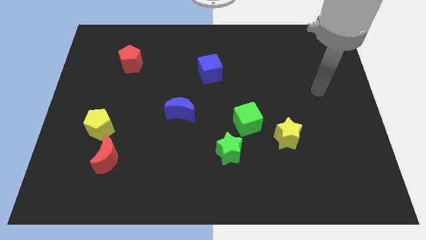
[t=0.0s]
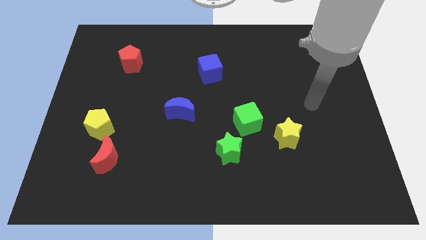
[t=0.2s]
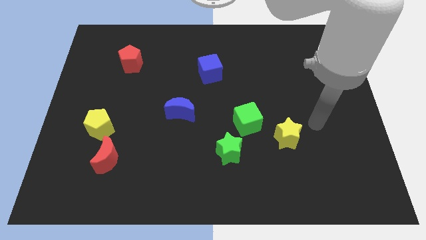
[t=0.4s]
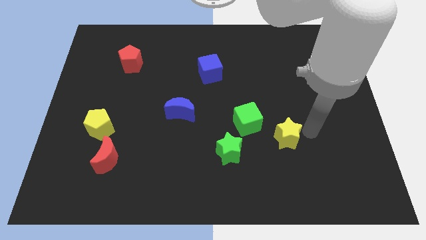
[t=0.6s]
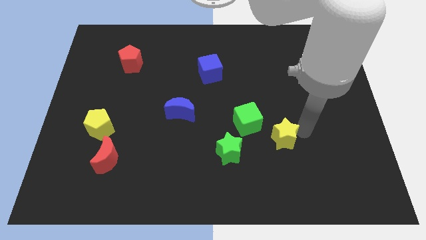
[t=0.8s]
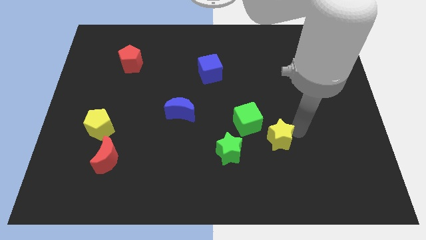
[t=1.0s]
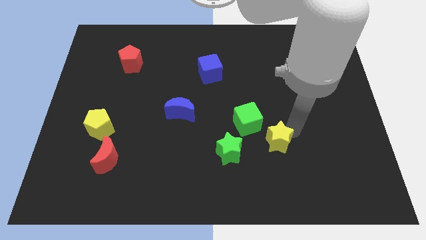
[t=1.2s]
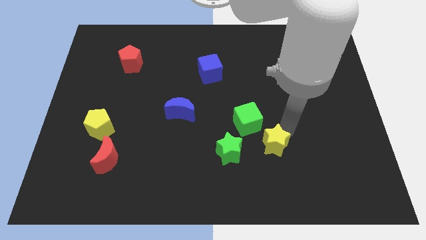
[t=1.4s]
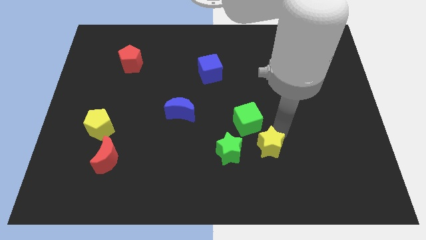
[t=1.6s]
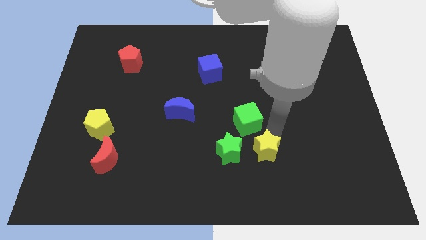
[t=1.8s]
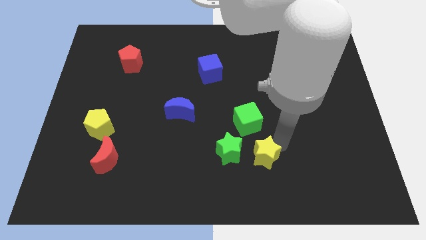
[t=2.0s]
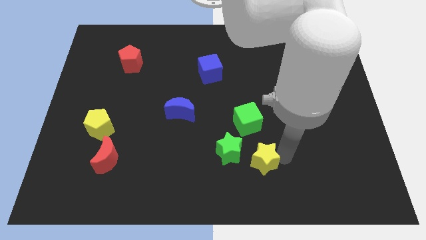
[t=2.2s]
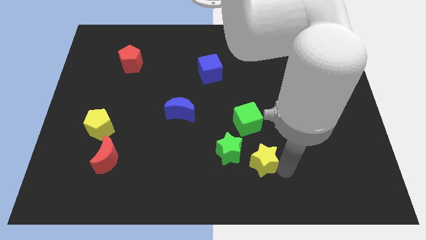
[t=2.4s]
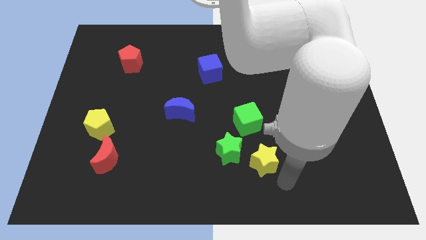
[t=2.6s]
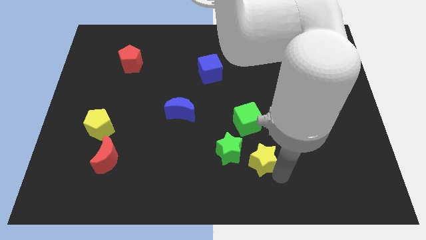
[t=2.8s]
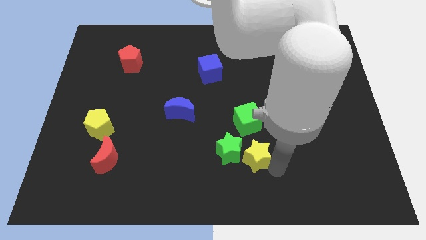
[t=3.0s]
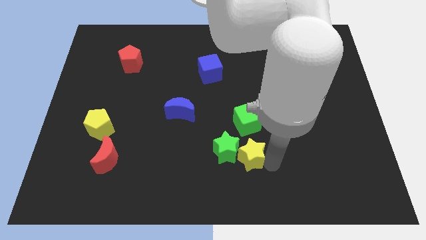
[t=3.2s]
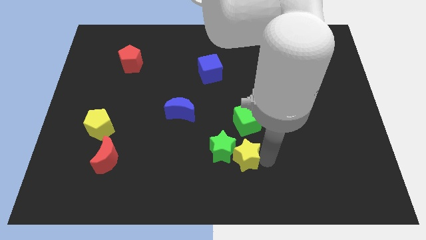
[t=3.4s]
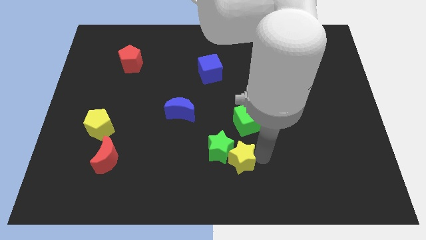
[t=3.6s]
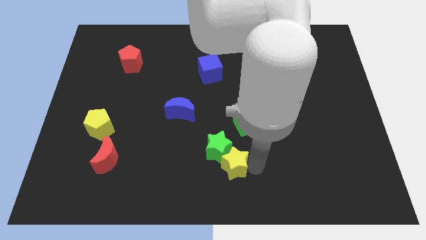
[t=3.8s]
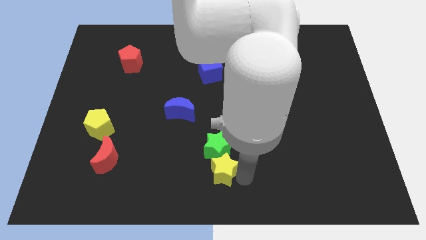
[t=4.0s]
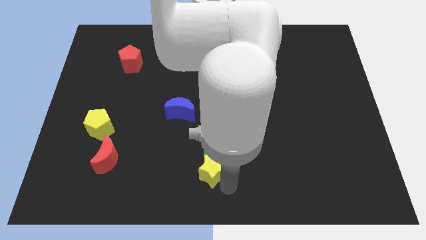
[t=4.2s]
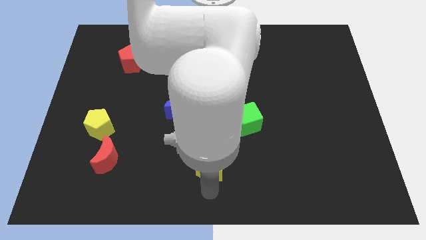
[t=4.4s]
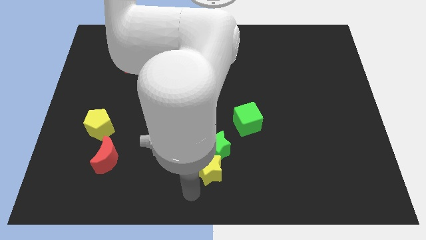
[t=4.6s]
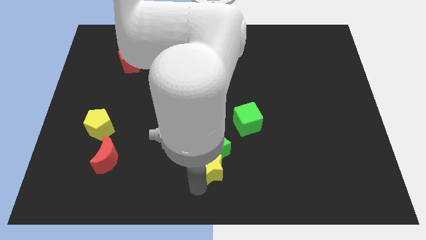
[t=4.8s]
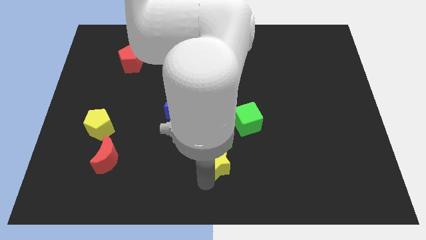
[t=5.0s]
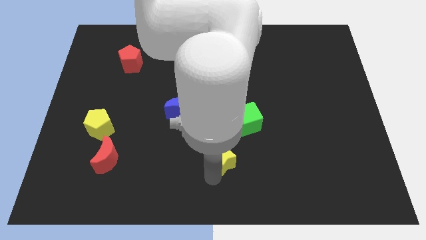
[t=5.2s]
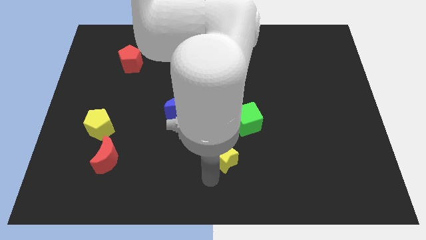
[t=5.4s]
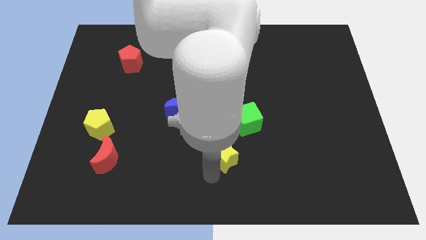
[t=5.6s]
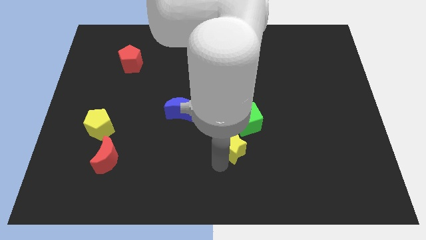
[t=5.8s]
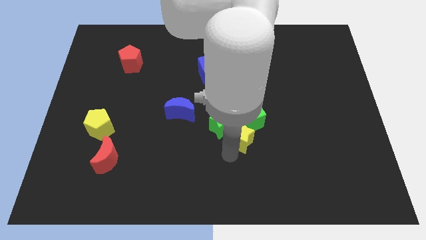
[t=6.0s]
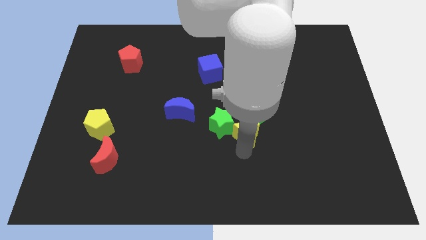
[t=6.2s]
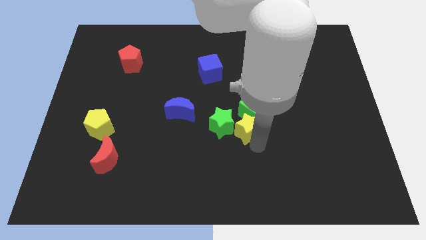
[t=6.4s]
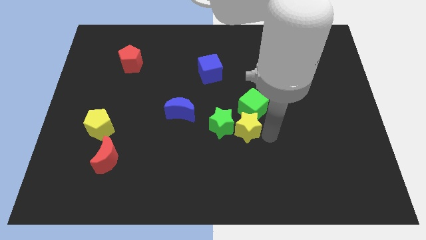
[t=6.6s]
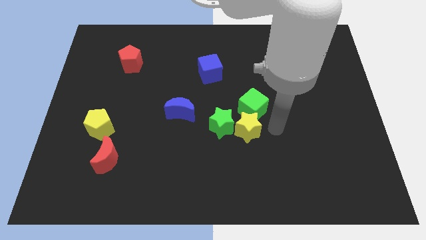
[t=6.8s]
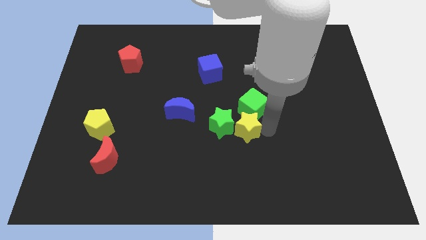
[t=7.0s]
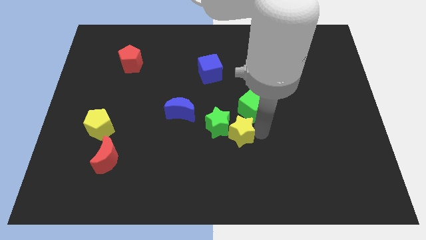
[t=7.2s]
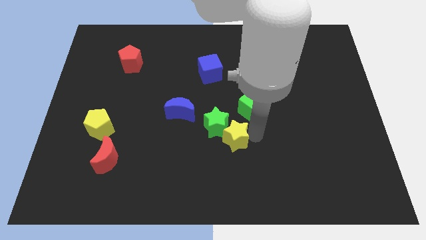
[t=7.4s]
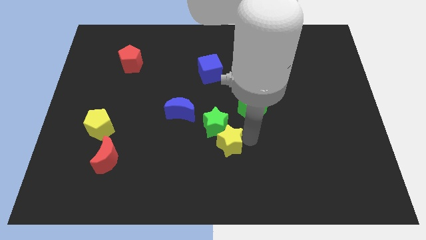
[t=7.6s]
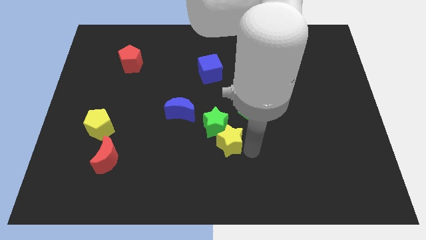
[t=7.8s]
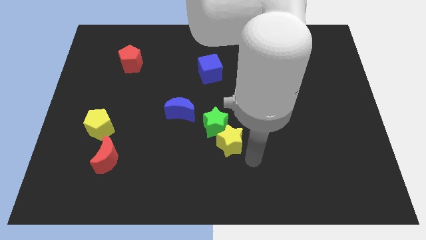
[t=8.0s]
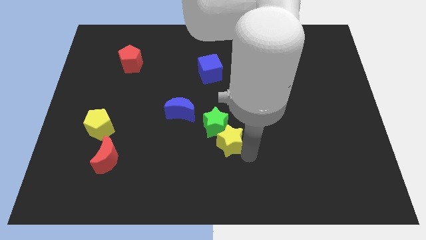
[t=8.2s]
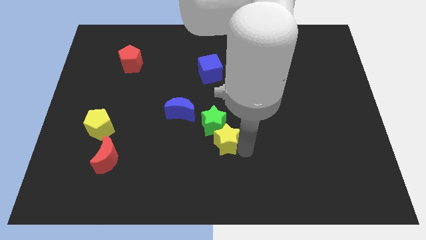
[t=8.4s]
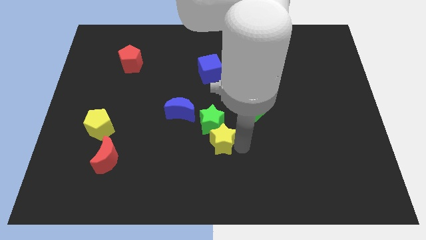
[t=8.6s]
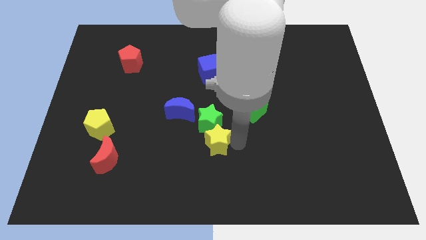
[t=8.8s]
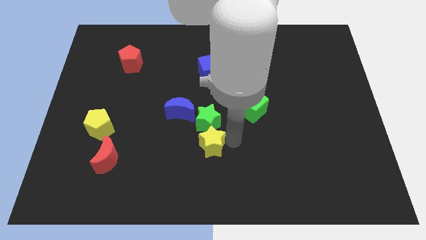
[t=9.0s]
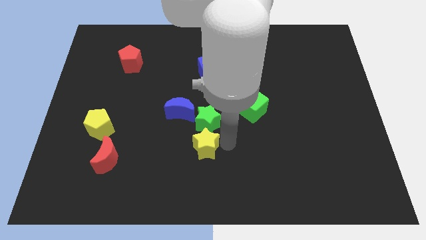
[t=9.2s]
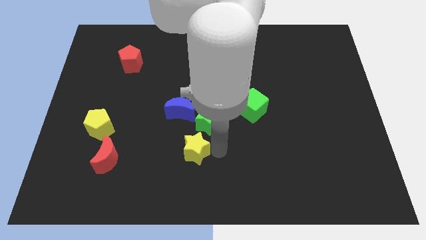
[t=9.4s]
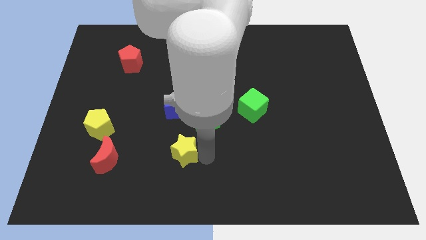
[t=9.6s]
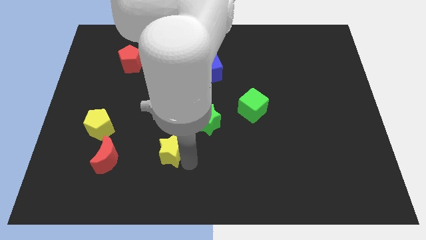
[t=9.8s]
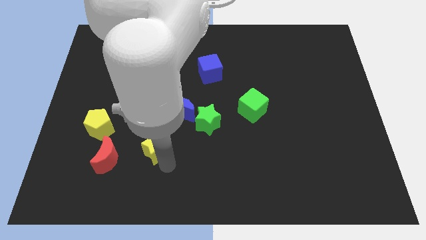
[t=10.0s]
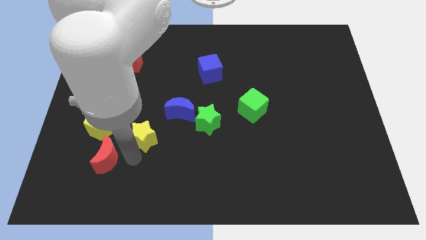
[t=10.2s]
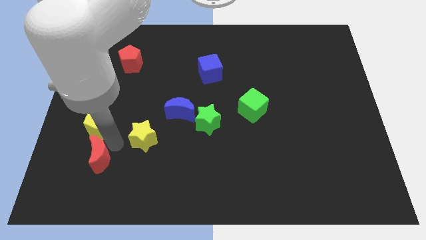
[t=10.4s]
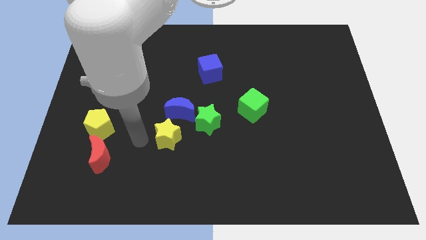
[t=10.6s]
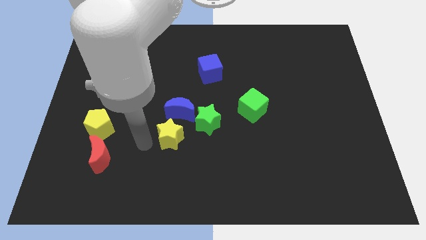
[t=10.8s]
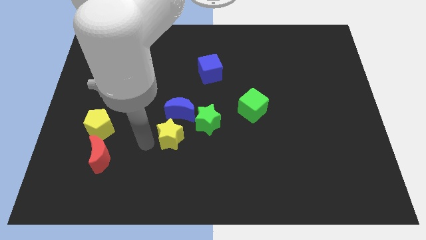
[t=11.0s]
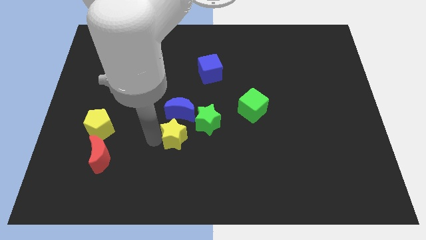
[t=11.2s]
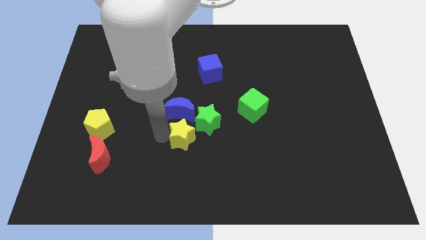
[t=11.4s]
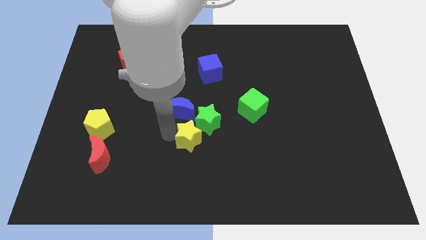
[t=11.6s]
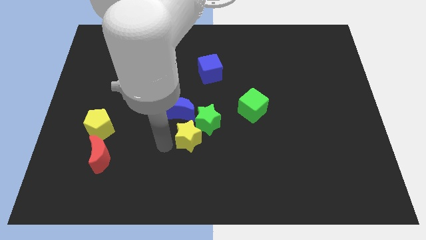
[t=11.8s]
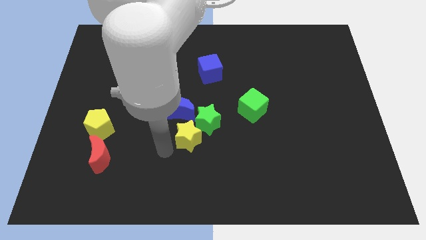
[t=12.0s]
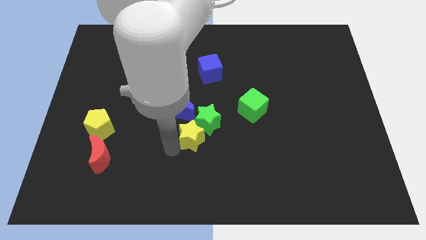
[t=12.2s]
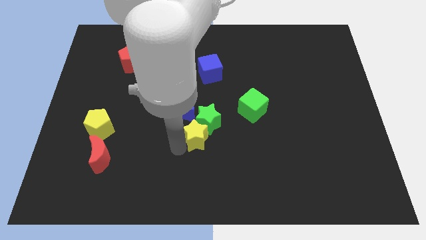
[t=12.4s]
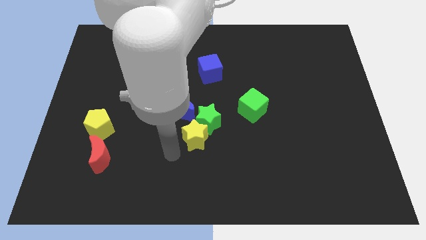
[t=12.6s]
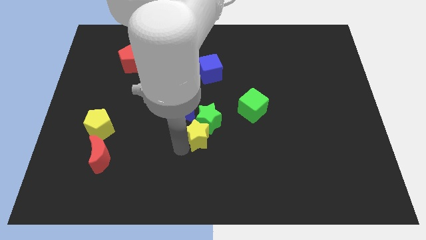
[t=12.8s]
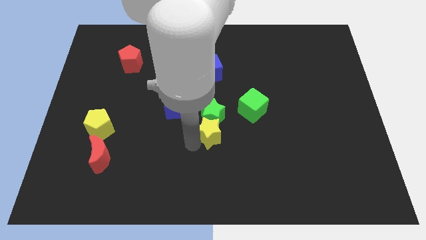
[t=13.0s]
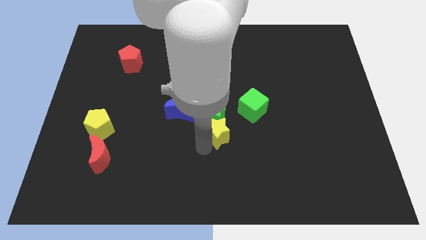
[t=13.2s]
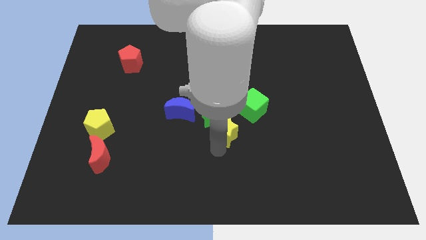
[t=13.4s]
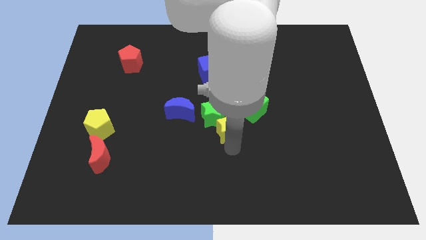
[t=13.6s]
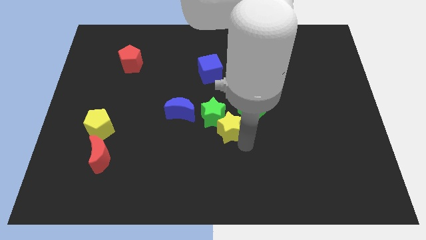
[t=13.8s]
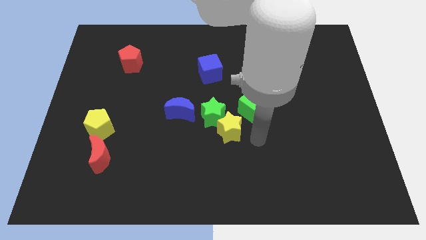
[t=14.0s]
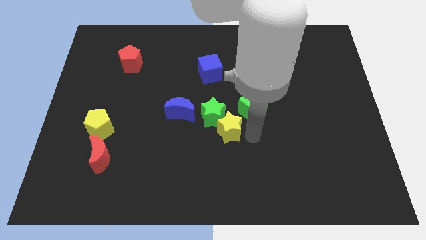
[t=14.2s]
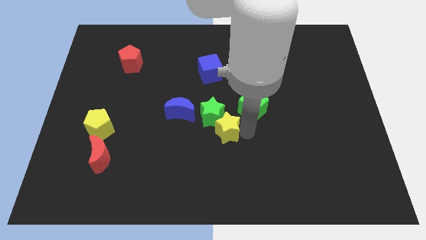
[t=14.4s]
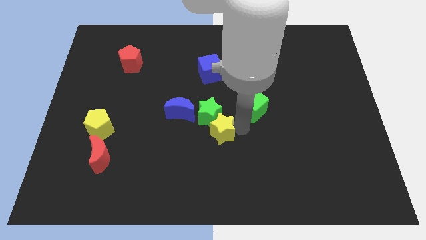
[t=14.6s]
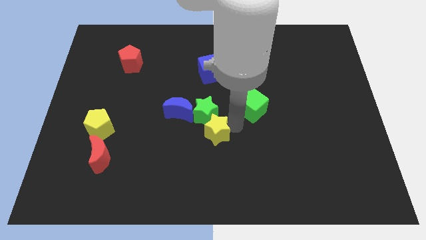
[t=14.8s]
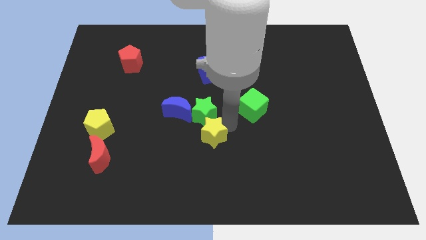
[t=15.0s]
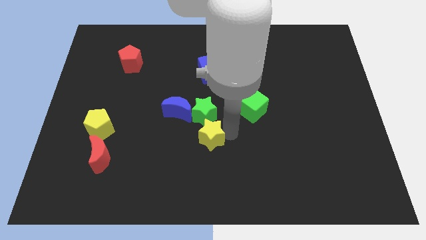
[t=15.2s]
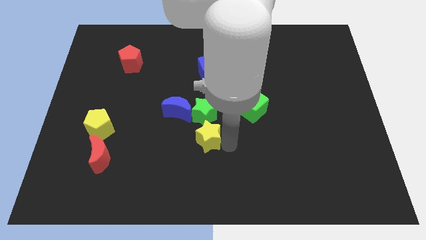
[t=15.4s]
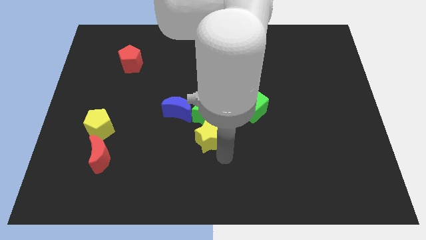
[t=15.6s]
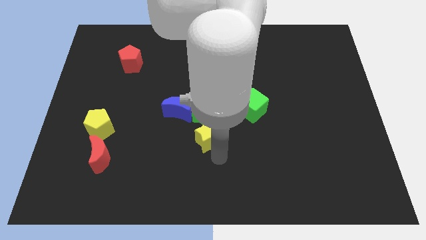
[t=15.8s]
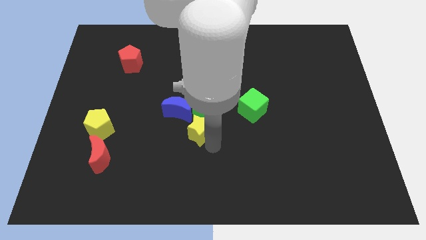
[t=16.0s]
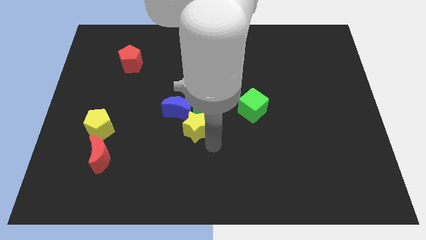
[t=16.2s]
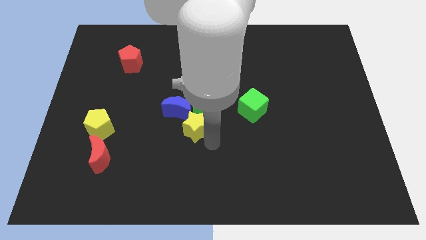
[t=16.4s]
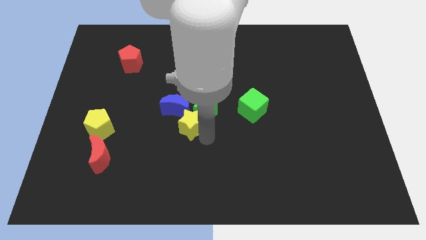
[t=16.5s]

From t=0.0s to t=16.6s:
move the yellow star next to the blue moon
